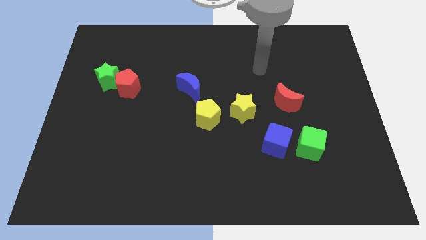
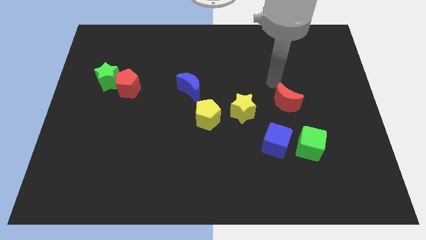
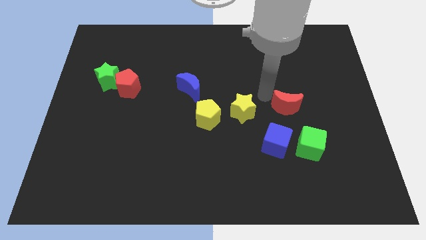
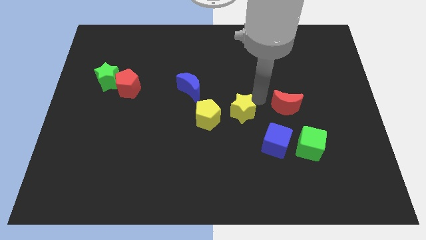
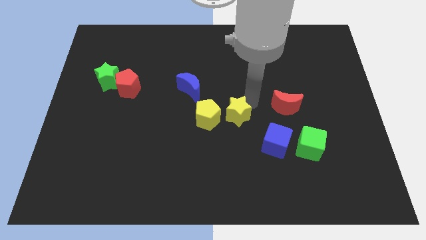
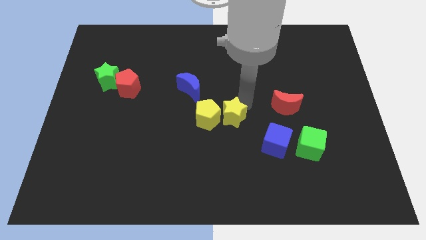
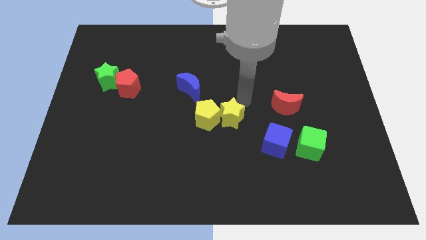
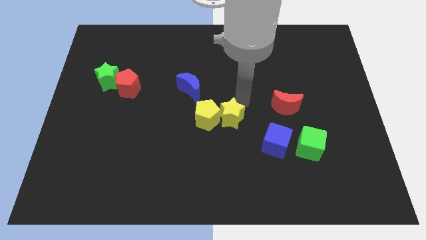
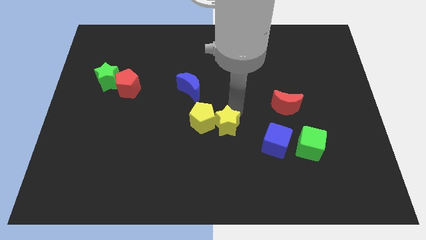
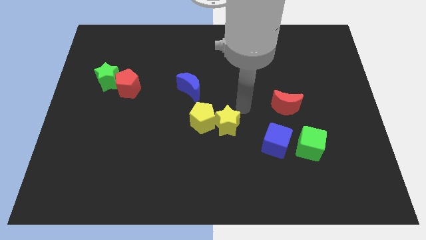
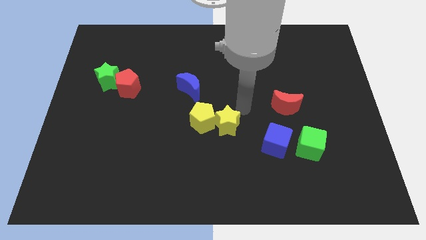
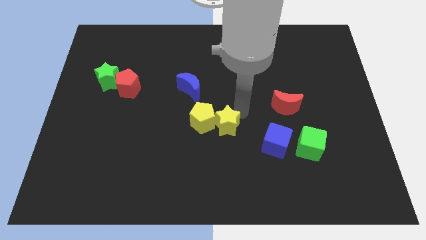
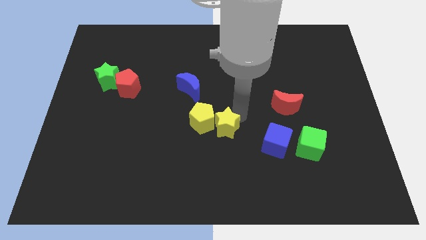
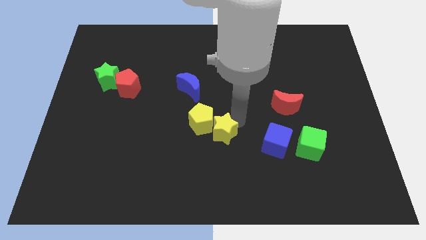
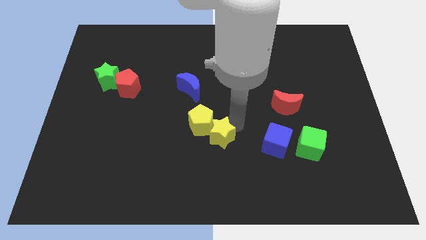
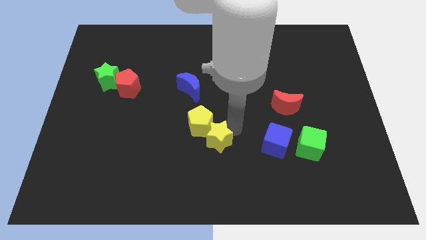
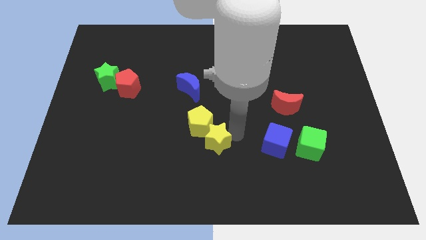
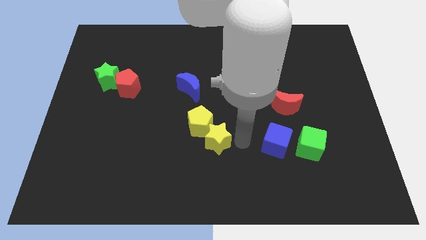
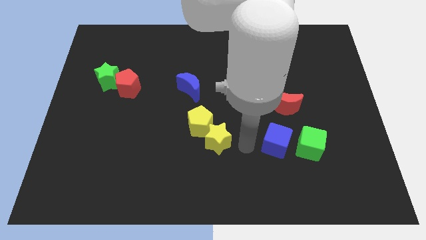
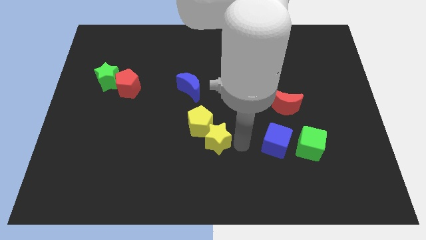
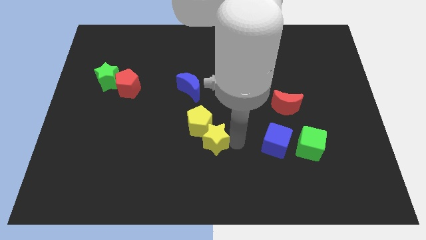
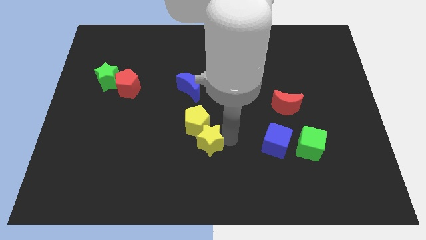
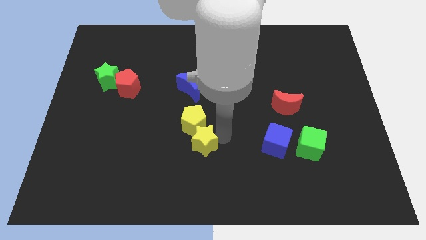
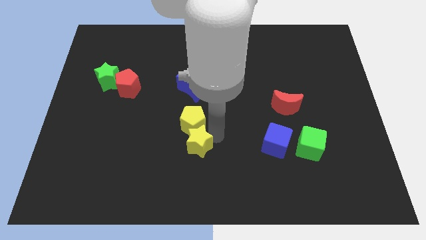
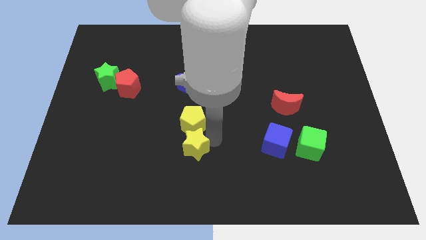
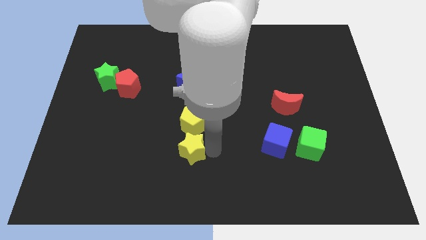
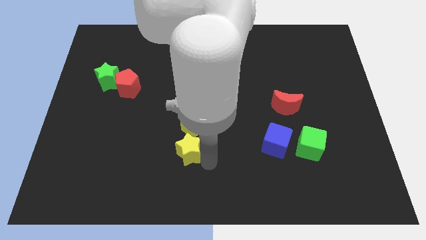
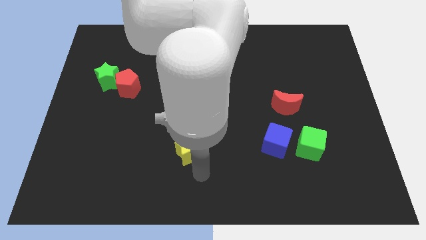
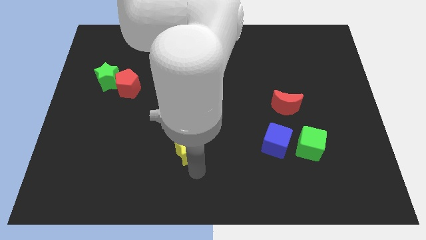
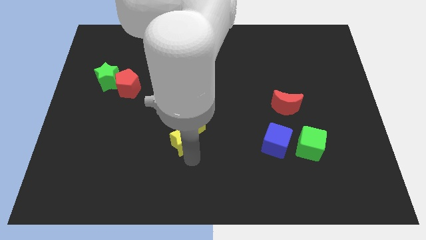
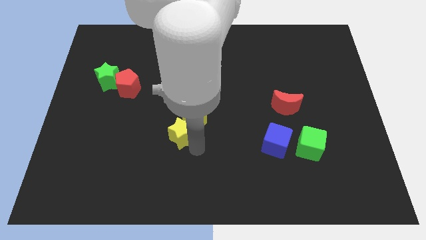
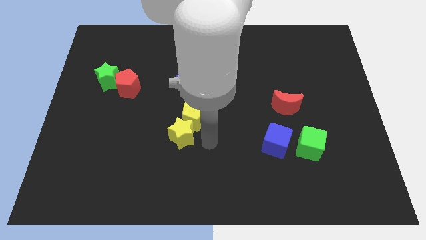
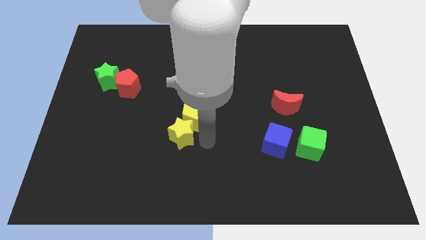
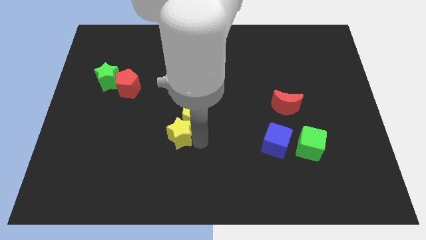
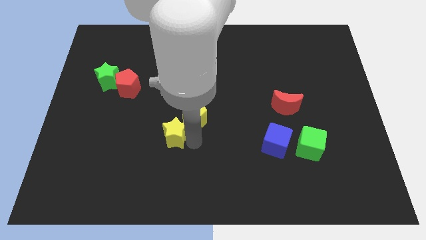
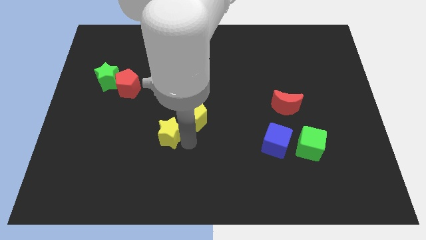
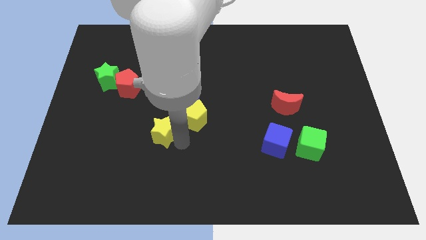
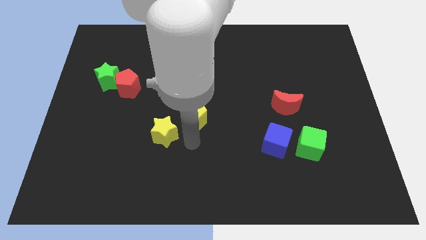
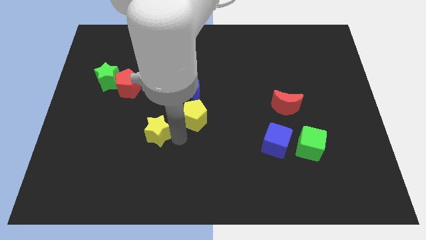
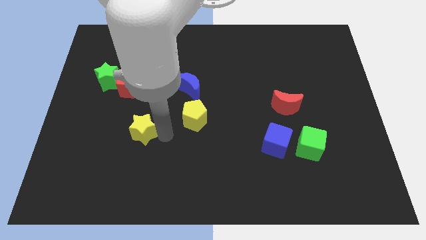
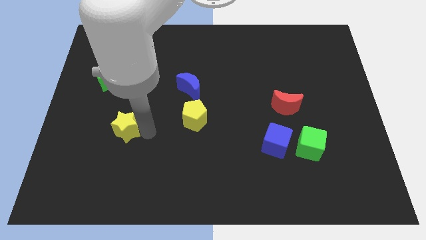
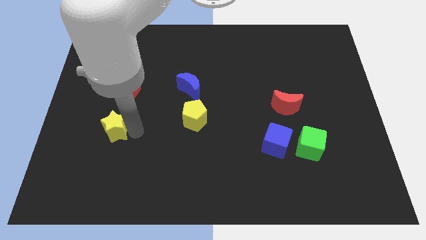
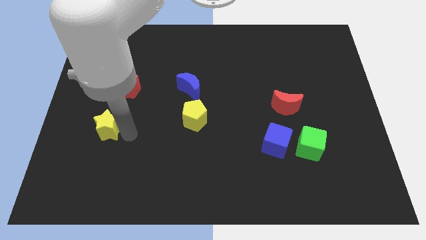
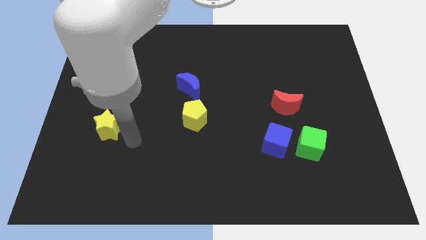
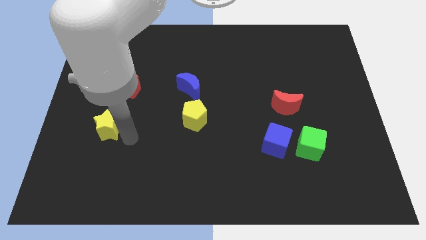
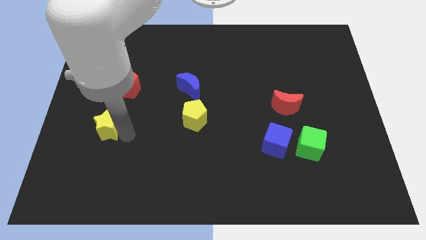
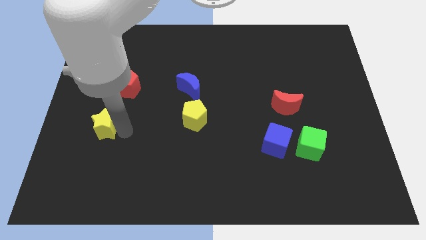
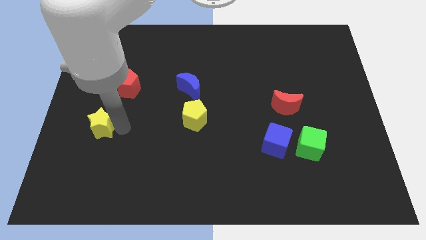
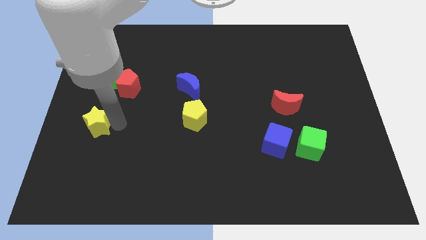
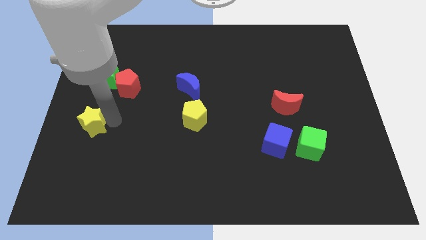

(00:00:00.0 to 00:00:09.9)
slide the yellow star to the left side

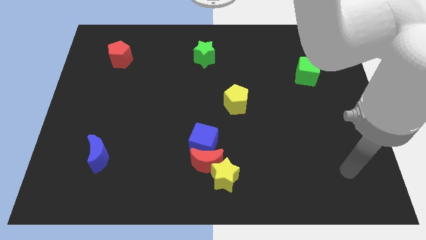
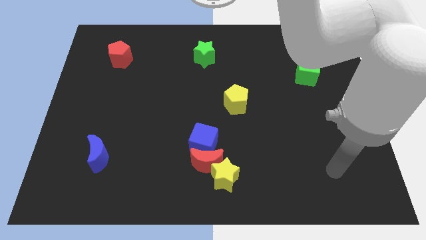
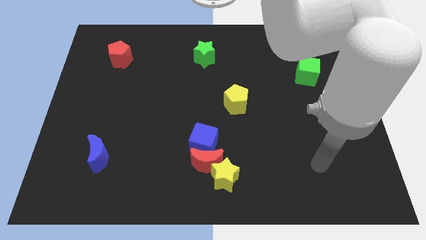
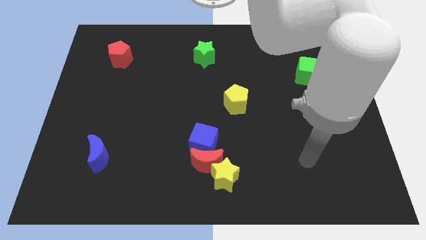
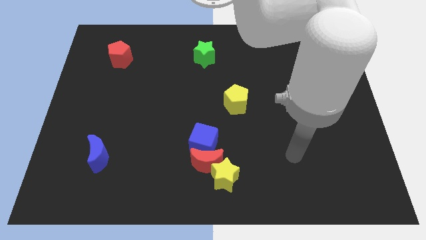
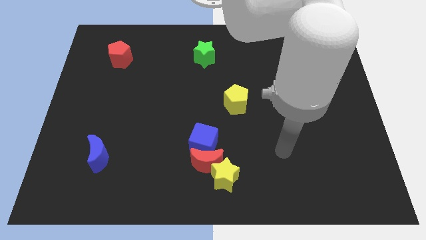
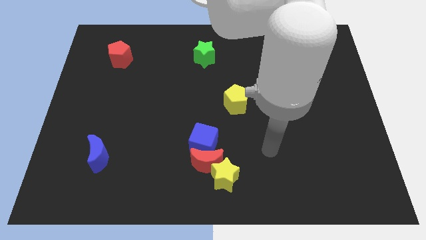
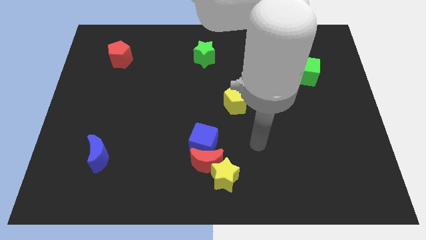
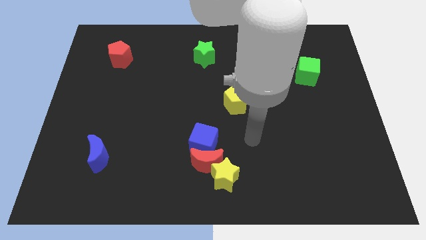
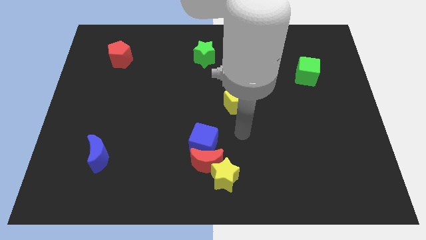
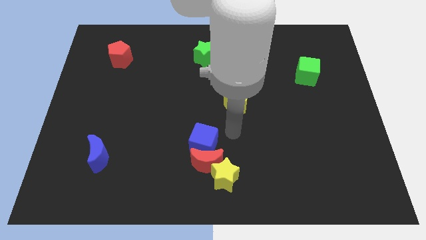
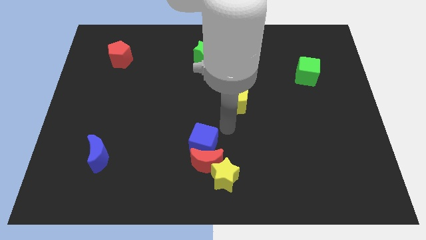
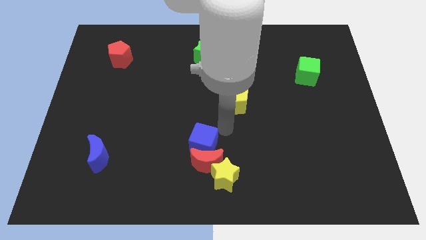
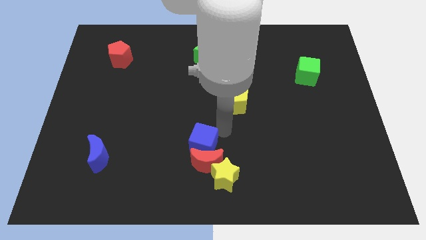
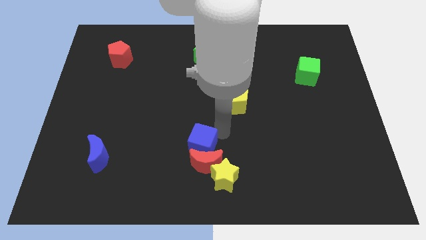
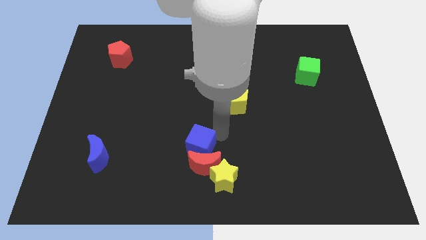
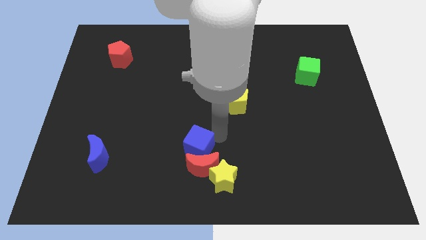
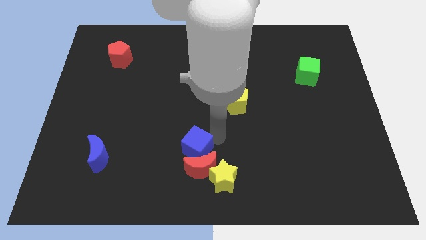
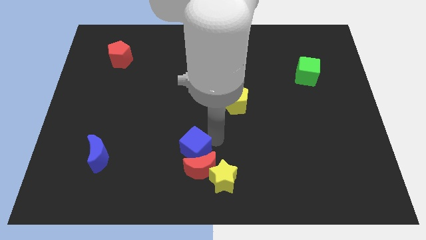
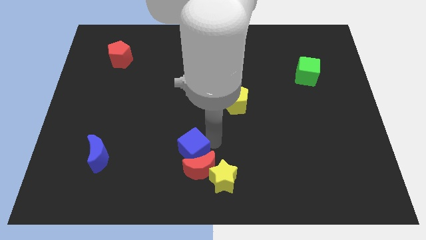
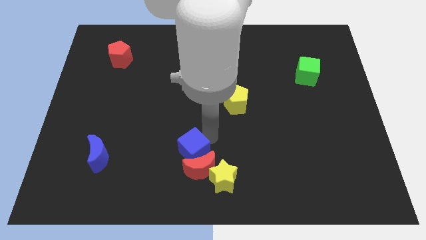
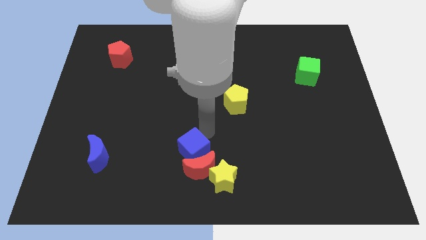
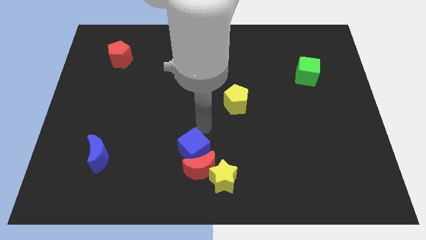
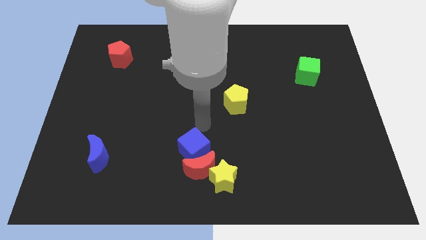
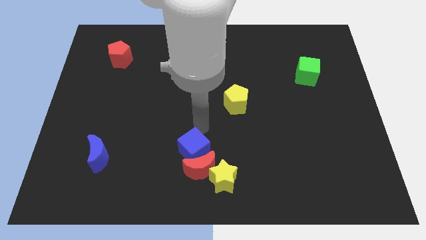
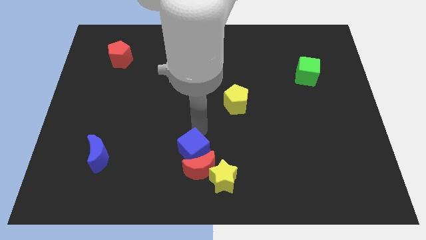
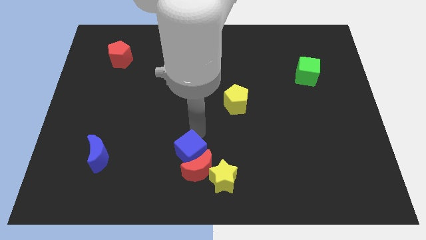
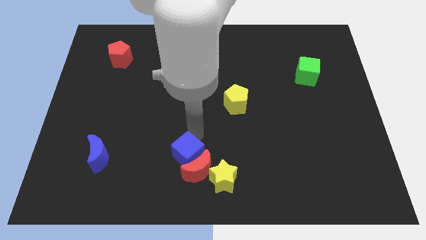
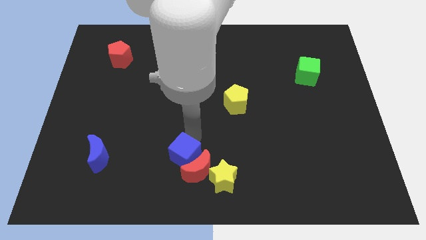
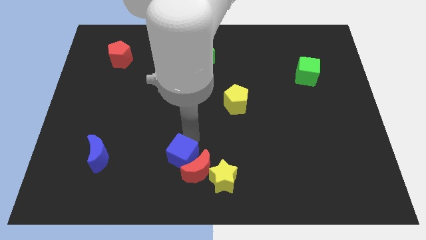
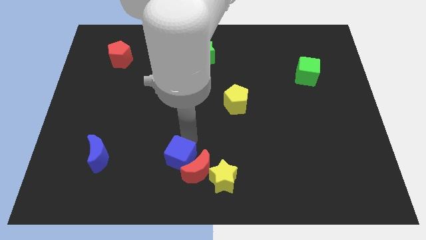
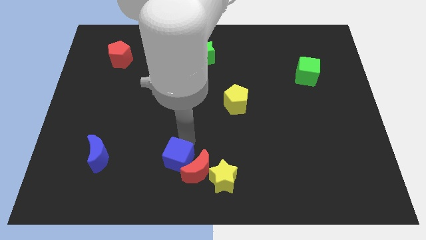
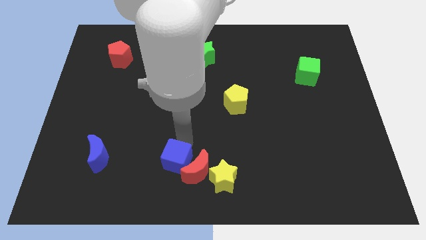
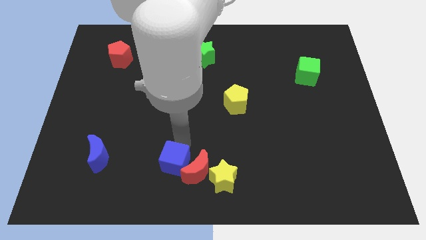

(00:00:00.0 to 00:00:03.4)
slide the blue cube to the bottom side
